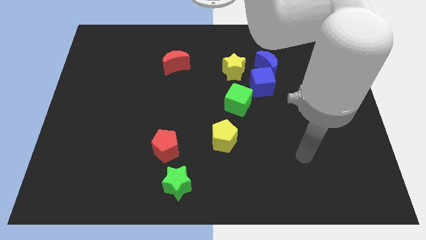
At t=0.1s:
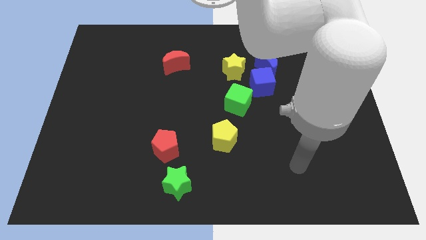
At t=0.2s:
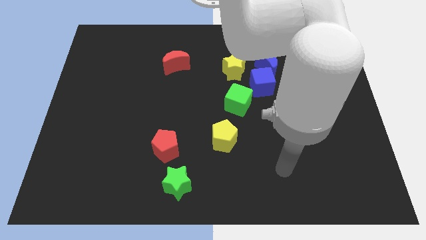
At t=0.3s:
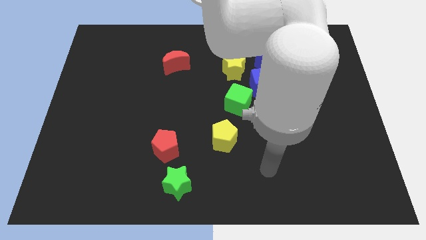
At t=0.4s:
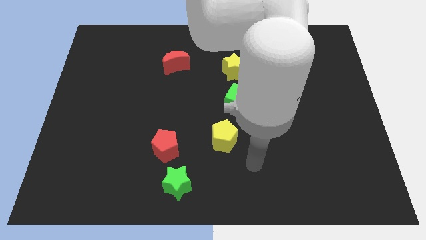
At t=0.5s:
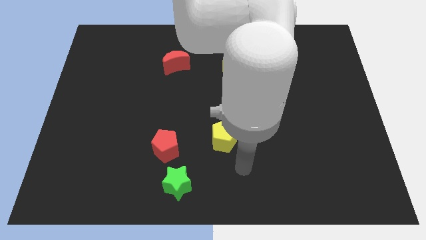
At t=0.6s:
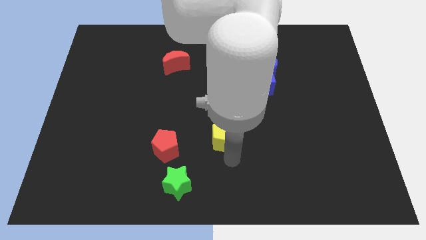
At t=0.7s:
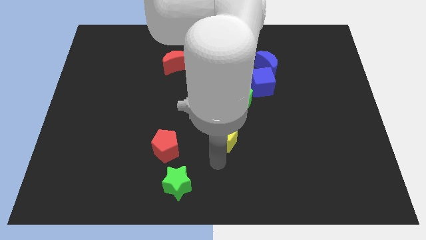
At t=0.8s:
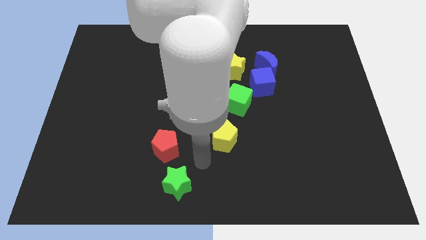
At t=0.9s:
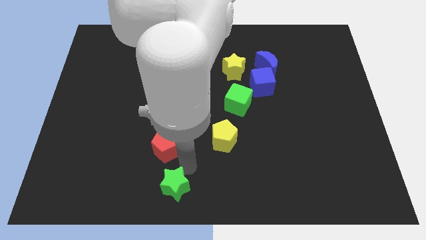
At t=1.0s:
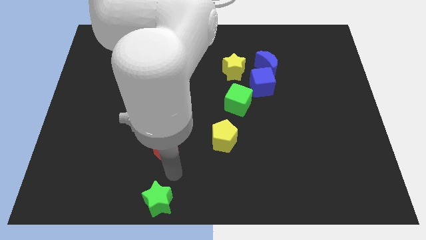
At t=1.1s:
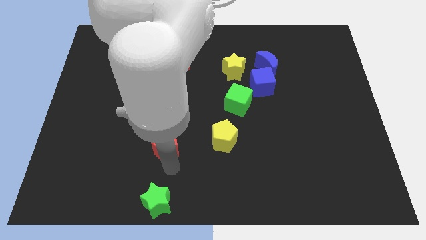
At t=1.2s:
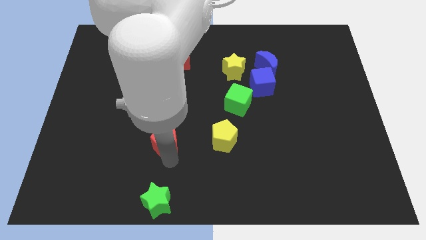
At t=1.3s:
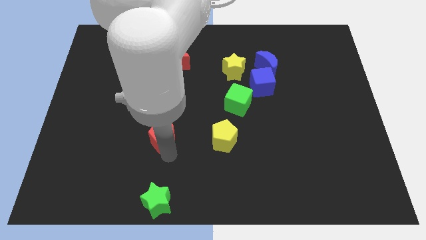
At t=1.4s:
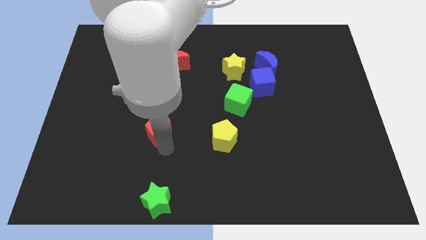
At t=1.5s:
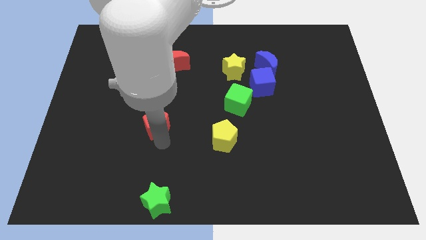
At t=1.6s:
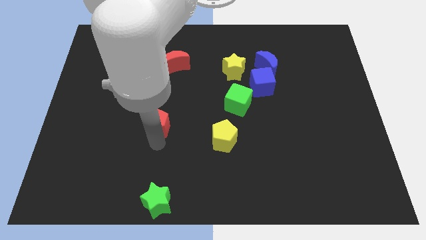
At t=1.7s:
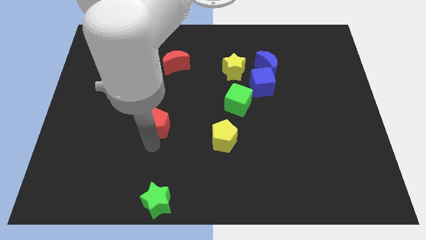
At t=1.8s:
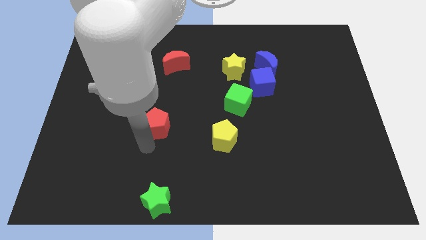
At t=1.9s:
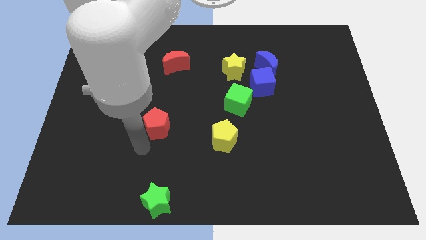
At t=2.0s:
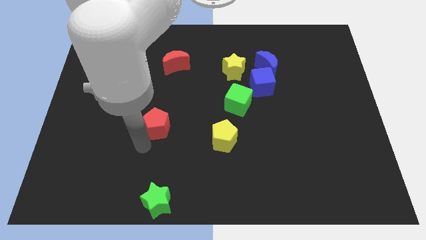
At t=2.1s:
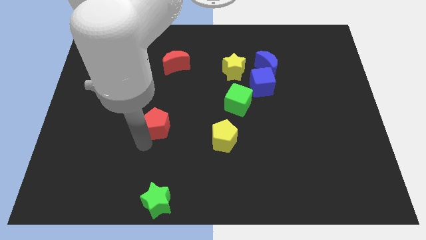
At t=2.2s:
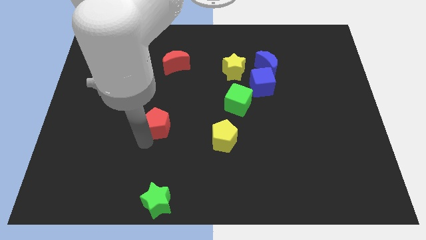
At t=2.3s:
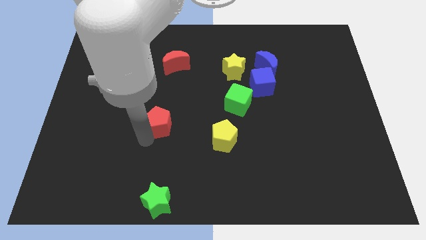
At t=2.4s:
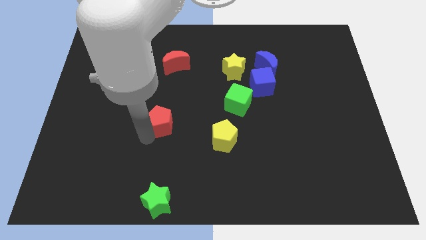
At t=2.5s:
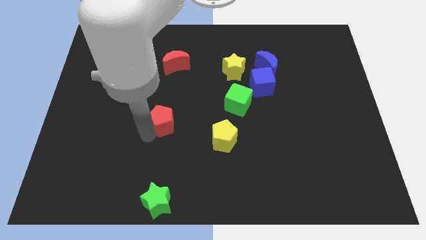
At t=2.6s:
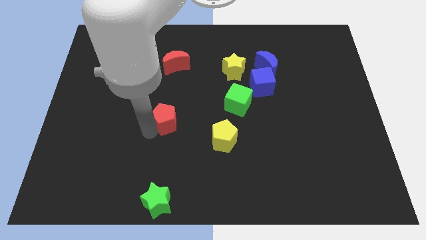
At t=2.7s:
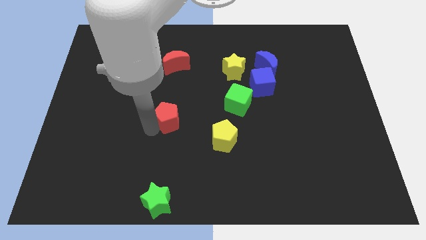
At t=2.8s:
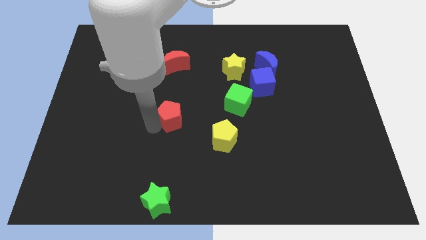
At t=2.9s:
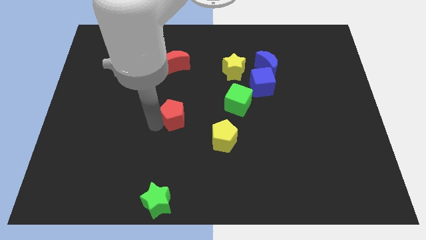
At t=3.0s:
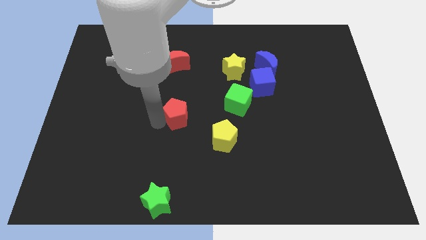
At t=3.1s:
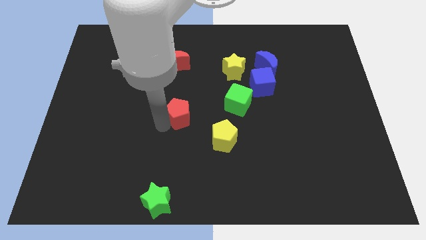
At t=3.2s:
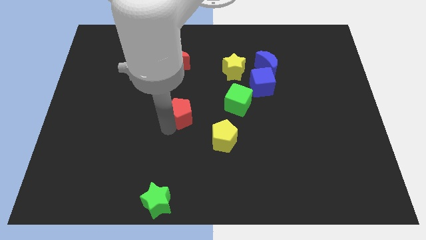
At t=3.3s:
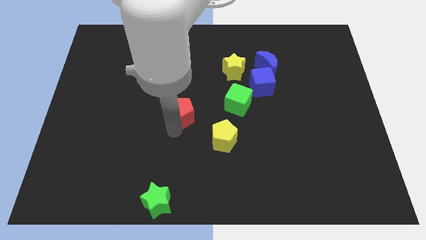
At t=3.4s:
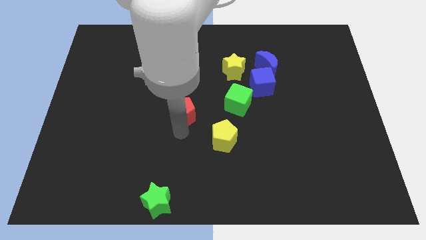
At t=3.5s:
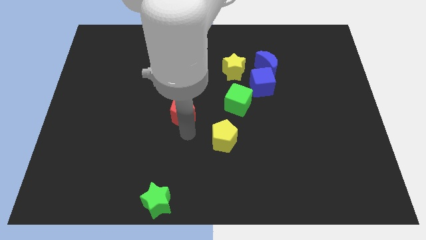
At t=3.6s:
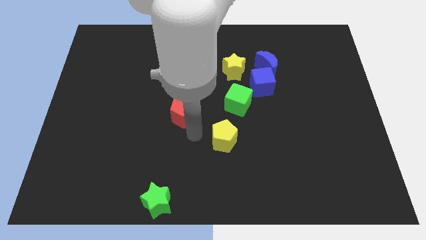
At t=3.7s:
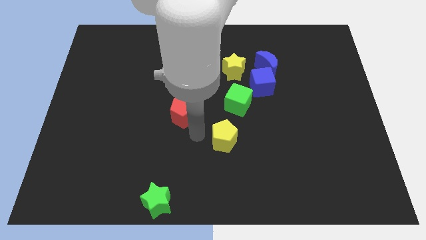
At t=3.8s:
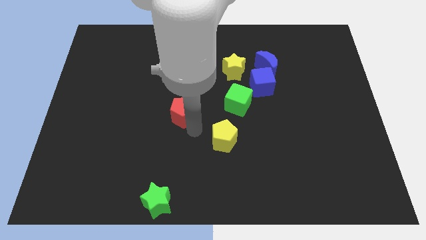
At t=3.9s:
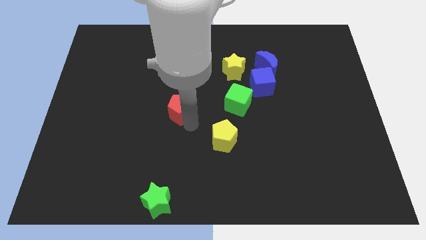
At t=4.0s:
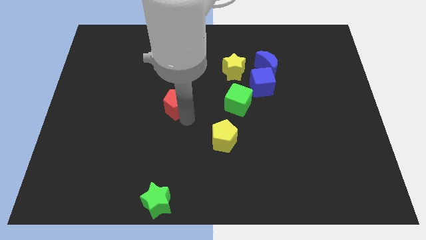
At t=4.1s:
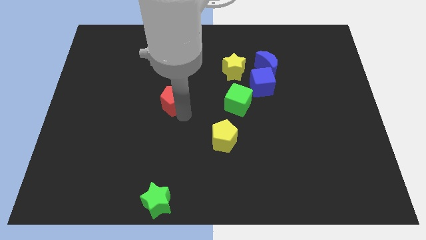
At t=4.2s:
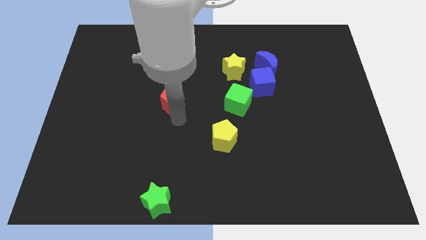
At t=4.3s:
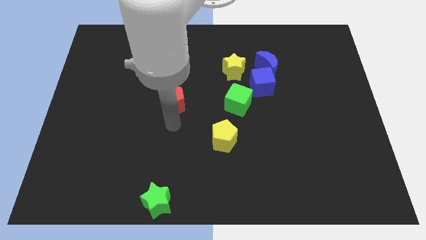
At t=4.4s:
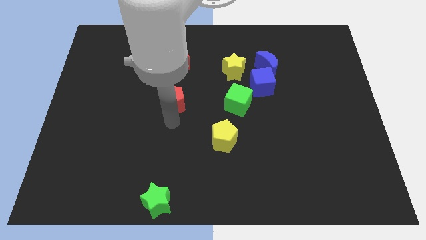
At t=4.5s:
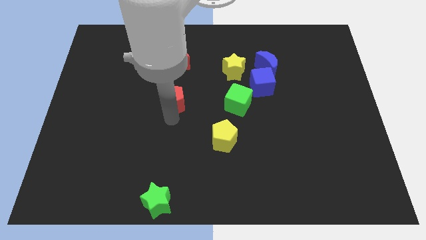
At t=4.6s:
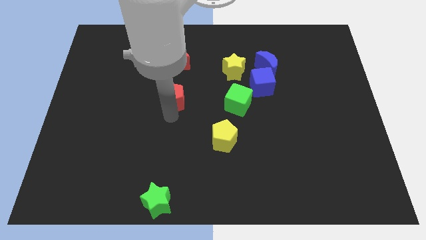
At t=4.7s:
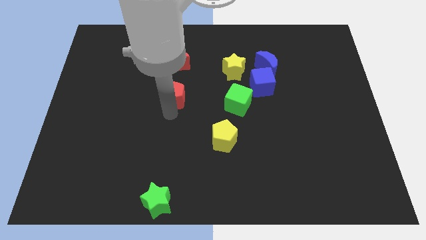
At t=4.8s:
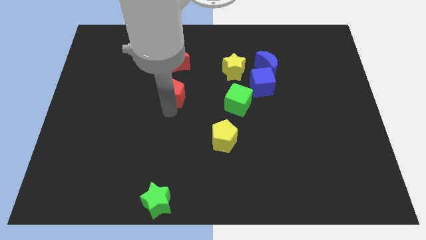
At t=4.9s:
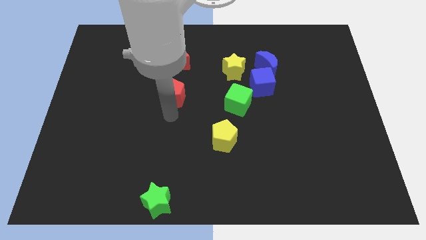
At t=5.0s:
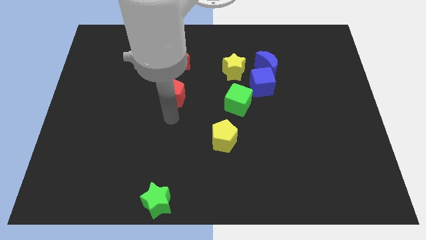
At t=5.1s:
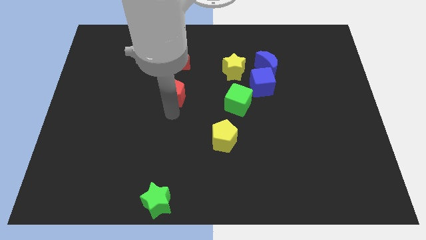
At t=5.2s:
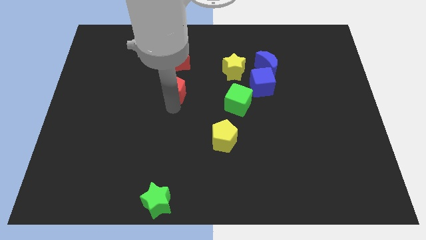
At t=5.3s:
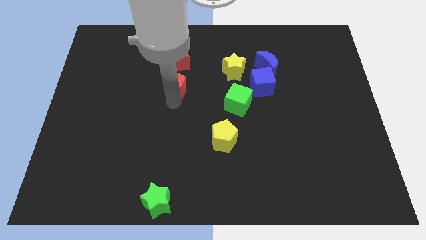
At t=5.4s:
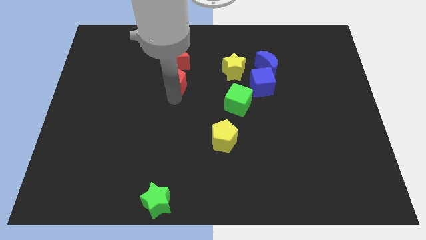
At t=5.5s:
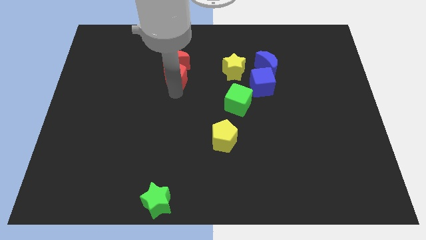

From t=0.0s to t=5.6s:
put the red pentagon towards the red moon

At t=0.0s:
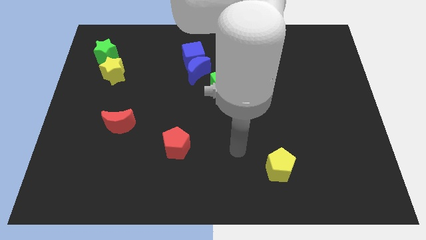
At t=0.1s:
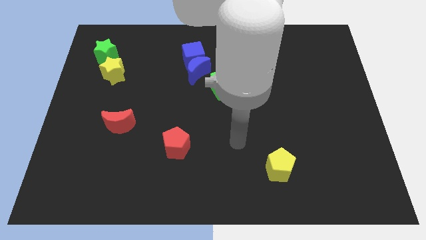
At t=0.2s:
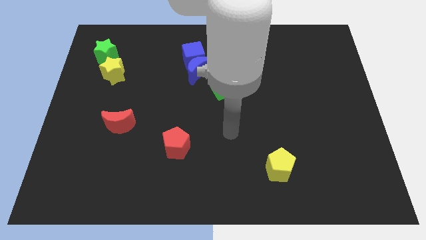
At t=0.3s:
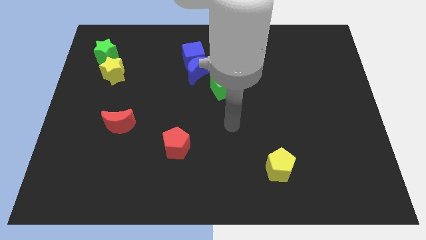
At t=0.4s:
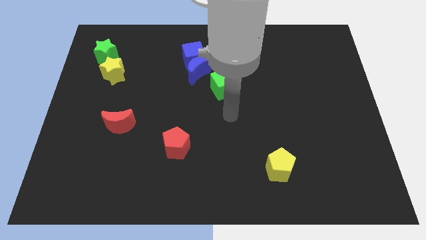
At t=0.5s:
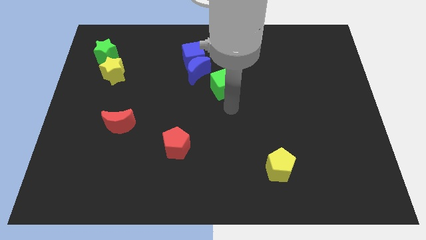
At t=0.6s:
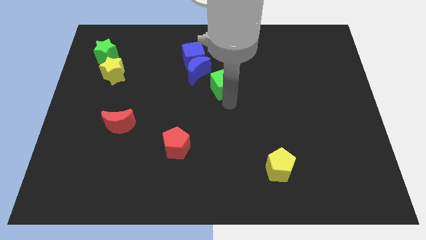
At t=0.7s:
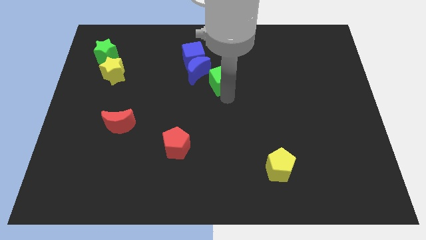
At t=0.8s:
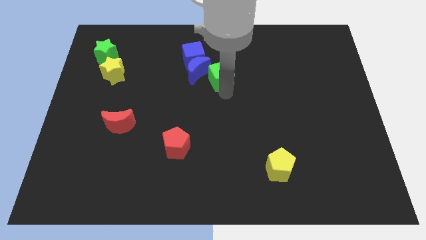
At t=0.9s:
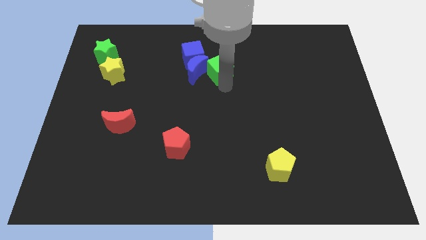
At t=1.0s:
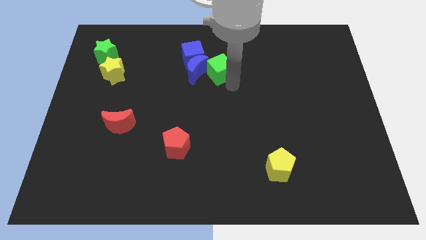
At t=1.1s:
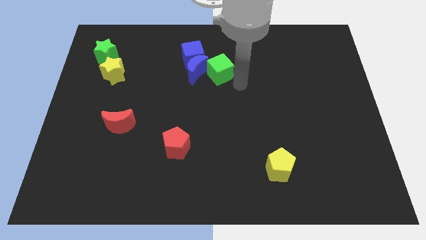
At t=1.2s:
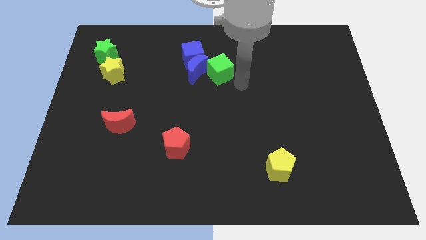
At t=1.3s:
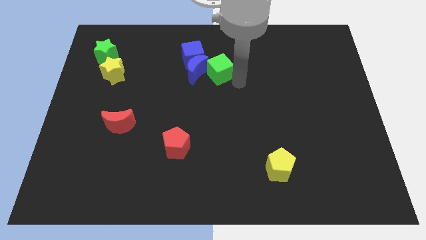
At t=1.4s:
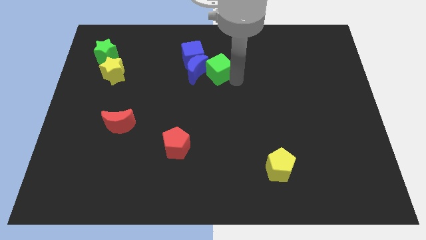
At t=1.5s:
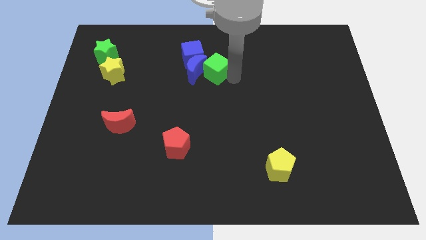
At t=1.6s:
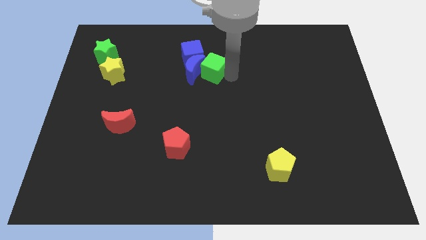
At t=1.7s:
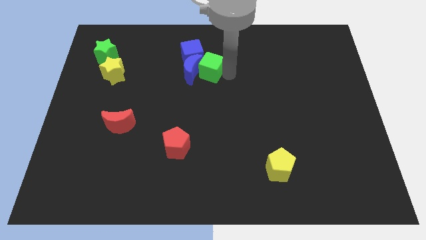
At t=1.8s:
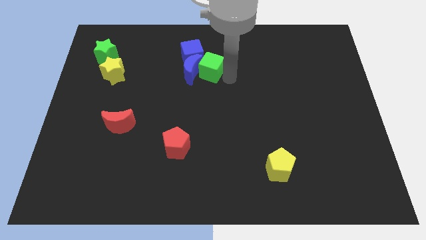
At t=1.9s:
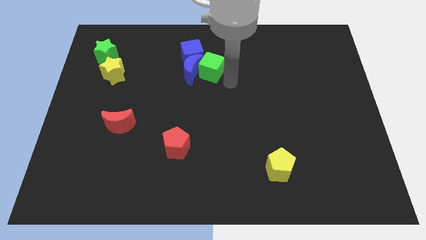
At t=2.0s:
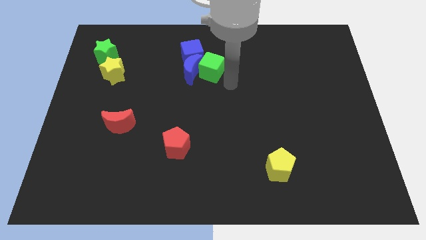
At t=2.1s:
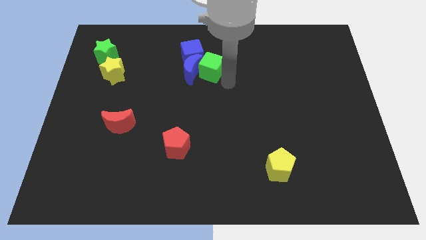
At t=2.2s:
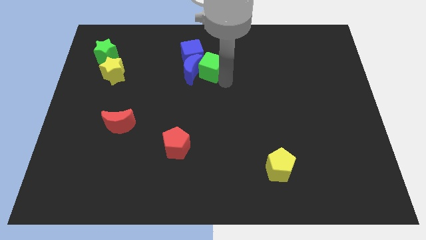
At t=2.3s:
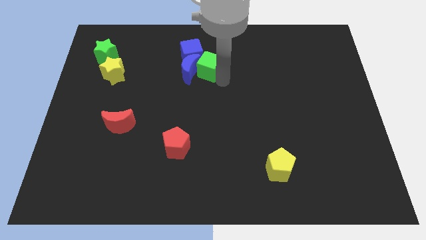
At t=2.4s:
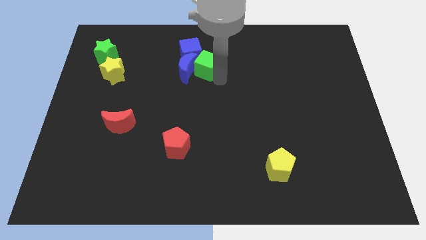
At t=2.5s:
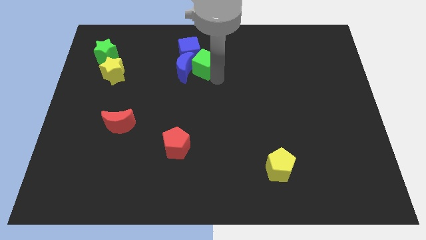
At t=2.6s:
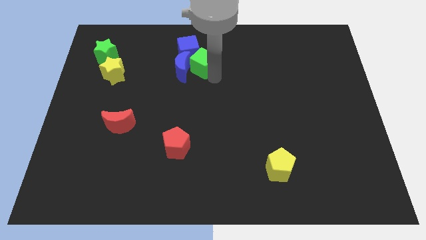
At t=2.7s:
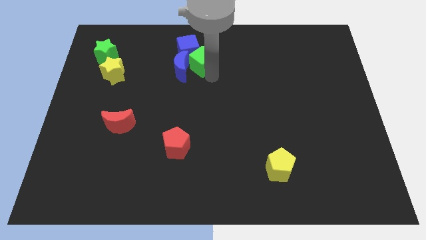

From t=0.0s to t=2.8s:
slide the green cube next to the blue cube
